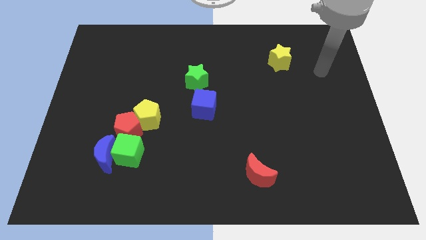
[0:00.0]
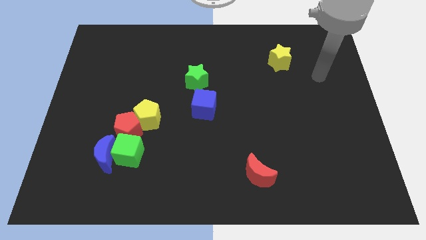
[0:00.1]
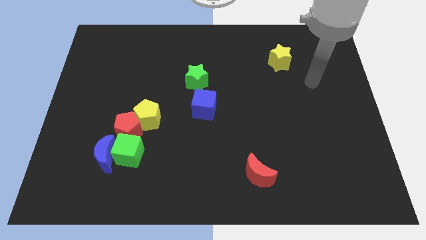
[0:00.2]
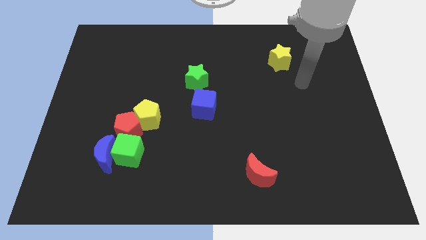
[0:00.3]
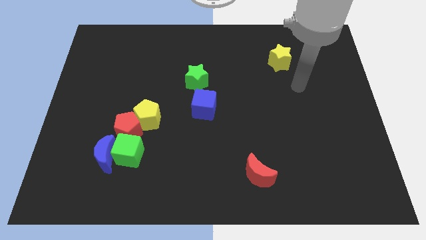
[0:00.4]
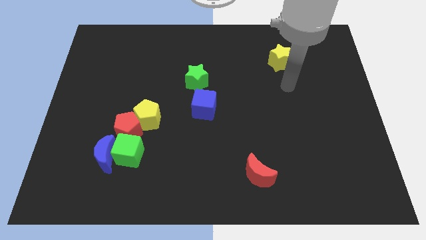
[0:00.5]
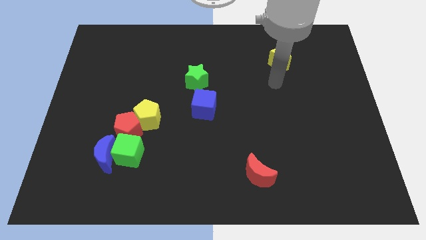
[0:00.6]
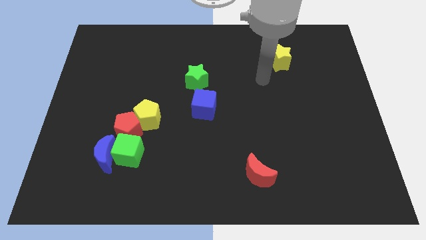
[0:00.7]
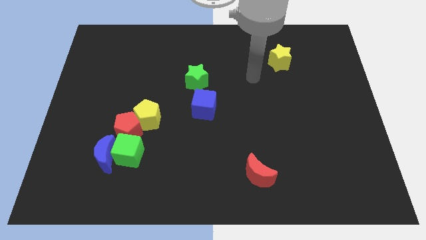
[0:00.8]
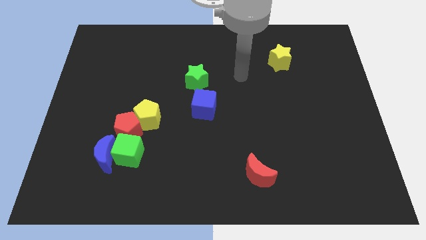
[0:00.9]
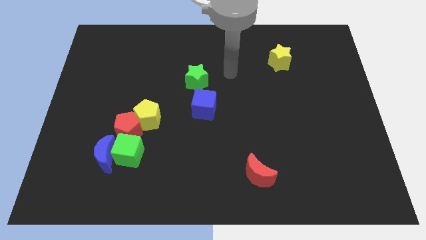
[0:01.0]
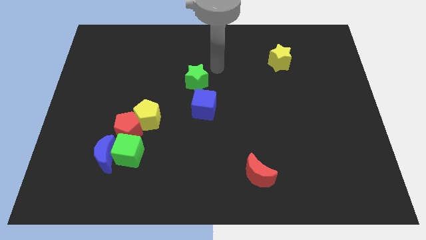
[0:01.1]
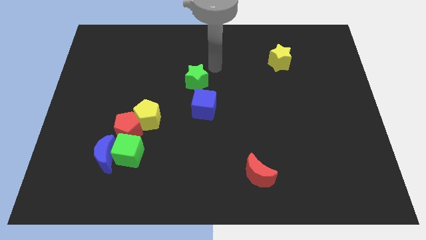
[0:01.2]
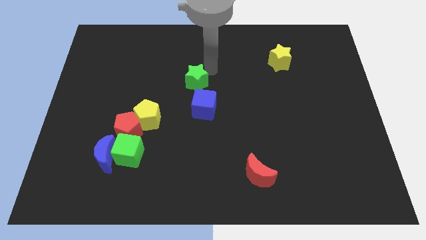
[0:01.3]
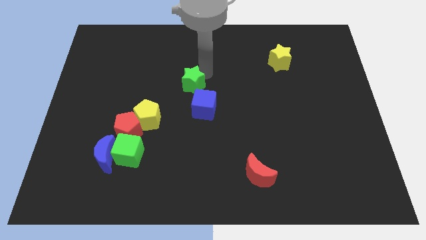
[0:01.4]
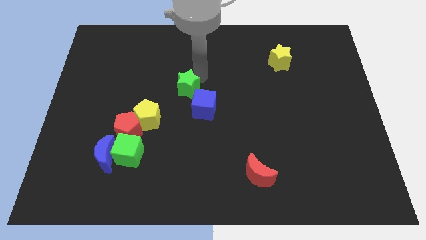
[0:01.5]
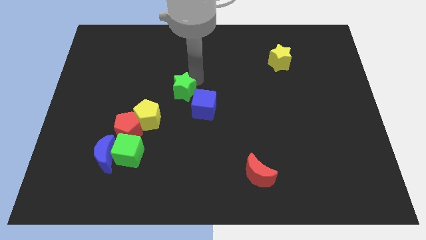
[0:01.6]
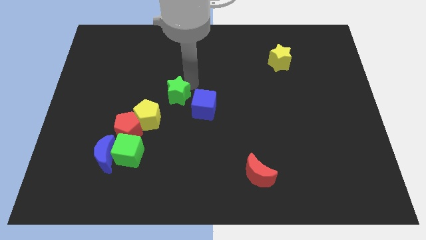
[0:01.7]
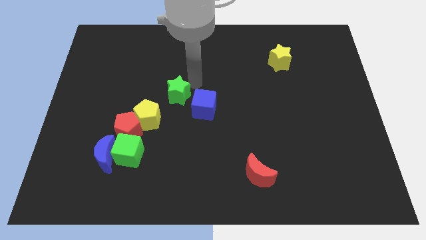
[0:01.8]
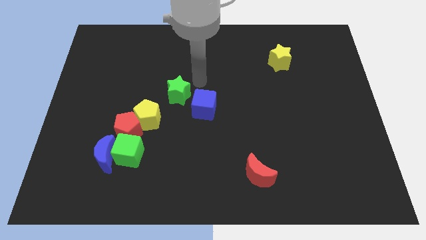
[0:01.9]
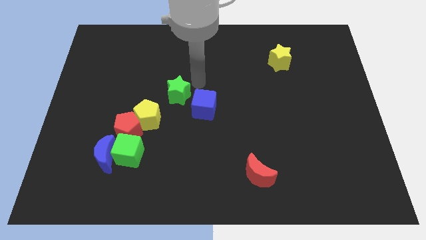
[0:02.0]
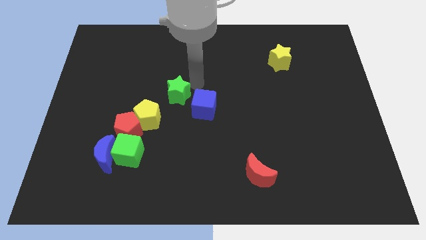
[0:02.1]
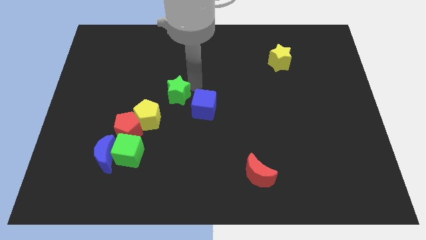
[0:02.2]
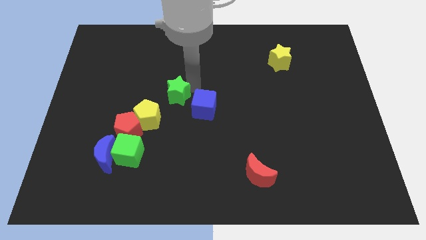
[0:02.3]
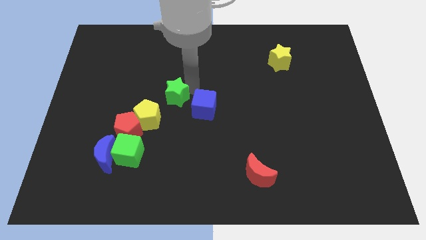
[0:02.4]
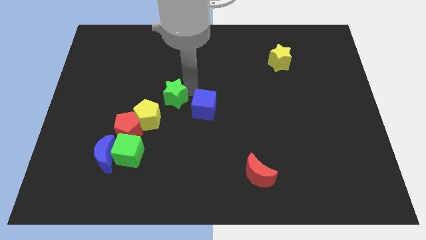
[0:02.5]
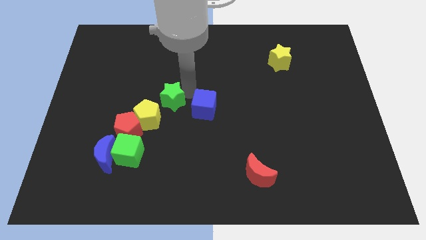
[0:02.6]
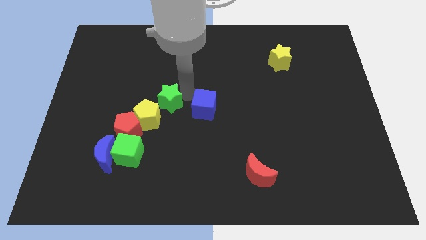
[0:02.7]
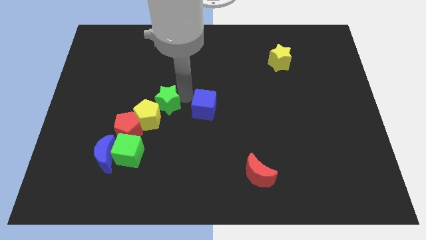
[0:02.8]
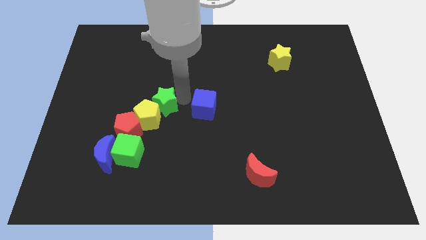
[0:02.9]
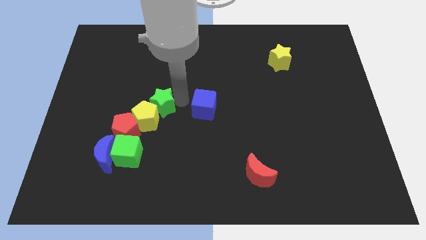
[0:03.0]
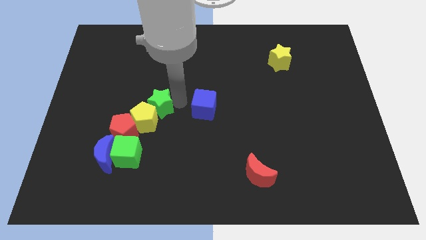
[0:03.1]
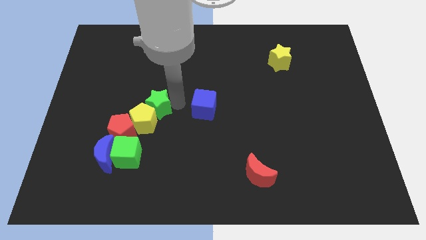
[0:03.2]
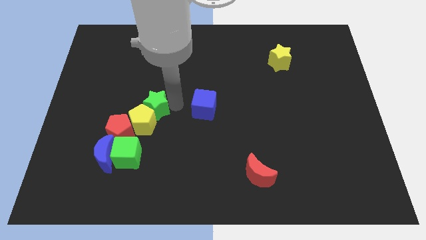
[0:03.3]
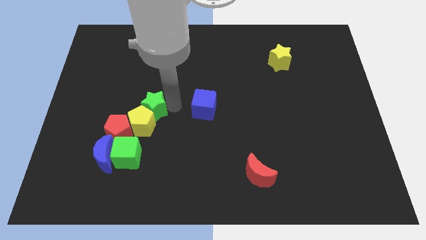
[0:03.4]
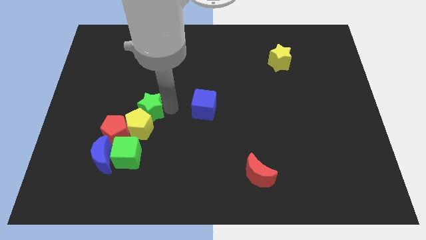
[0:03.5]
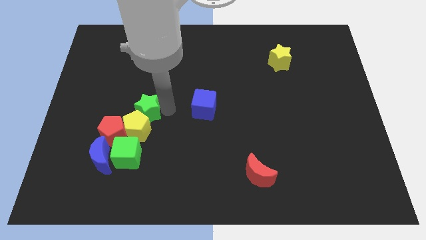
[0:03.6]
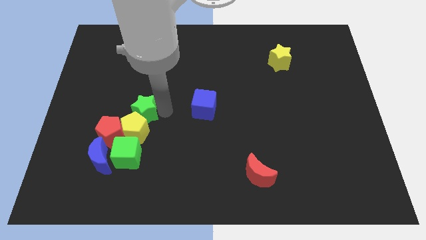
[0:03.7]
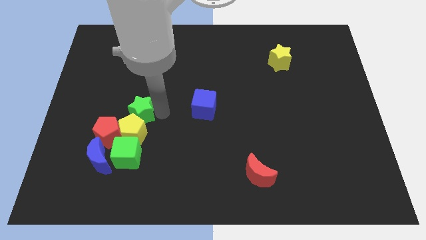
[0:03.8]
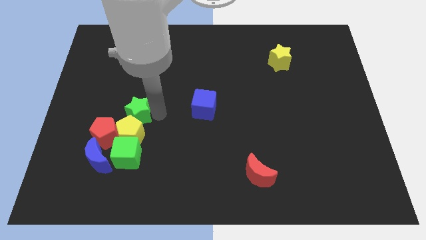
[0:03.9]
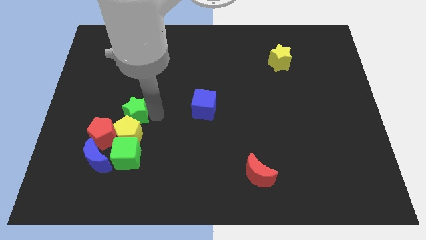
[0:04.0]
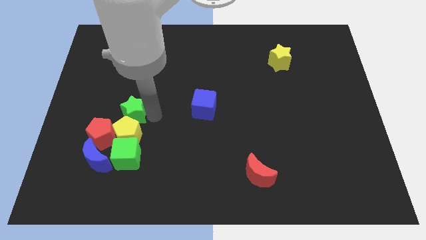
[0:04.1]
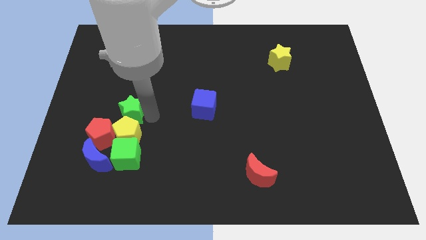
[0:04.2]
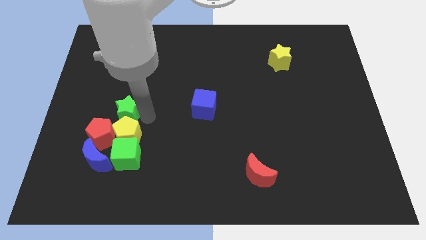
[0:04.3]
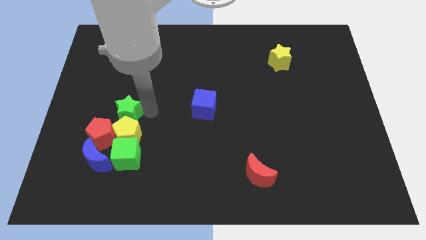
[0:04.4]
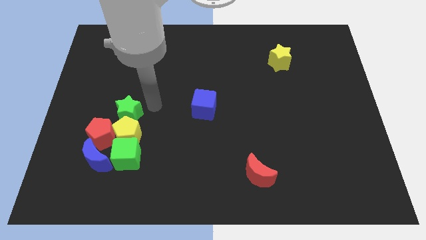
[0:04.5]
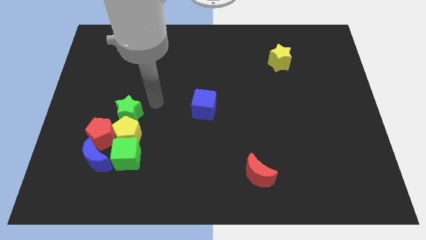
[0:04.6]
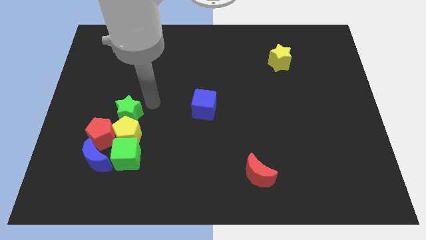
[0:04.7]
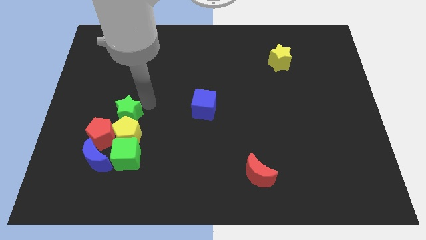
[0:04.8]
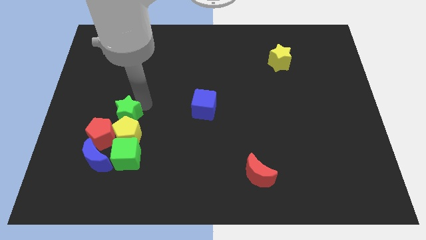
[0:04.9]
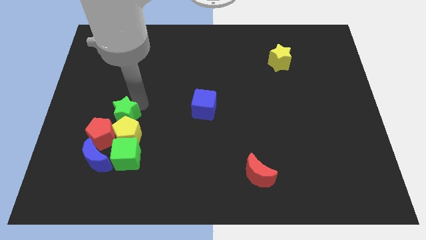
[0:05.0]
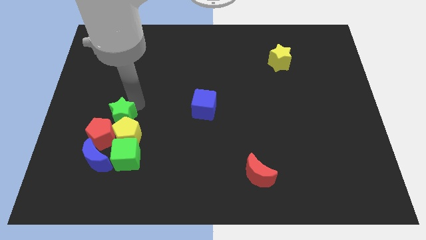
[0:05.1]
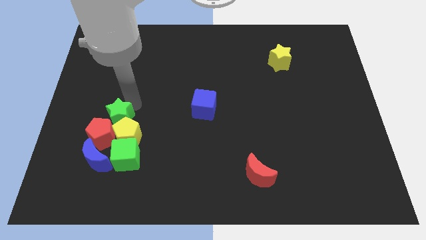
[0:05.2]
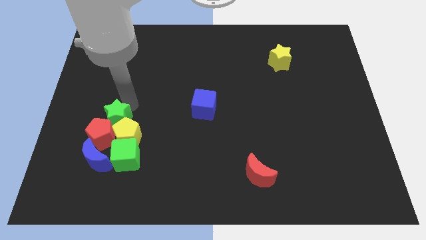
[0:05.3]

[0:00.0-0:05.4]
push the green star diagonally downwards and left

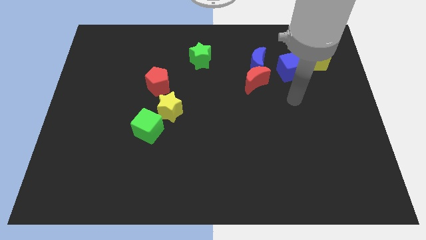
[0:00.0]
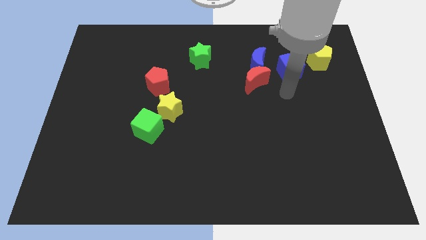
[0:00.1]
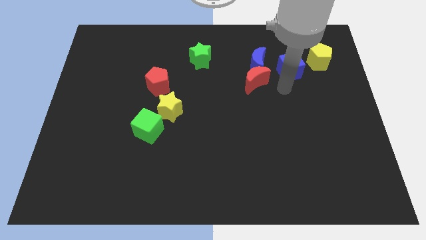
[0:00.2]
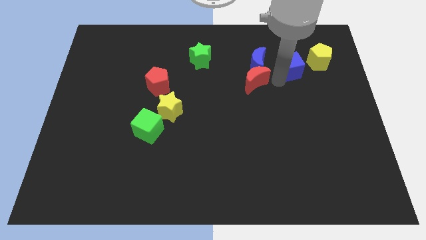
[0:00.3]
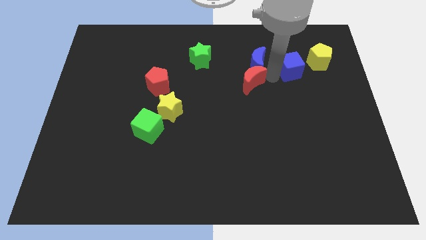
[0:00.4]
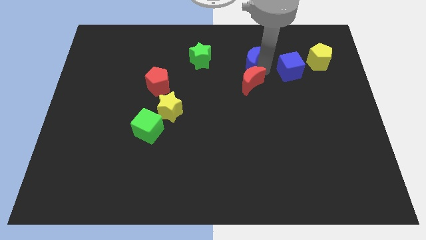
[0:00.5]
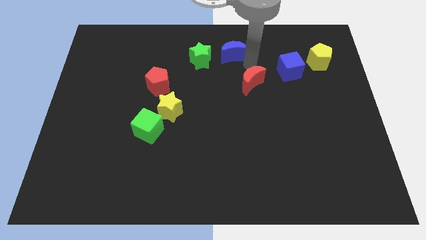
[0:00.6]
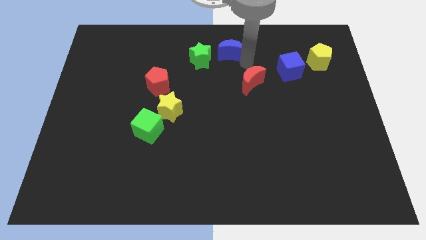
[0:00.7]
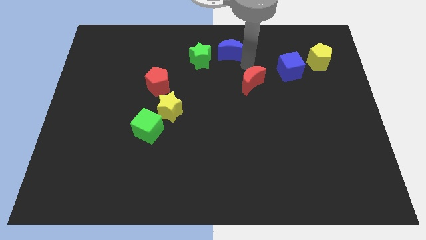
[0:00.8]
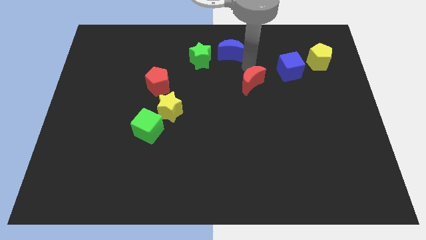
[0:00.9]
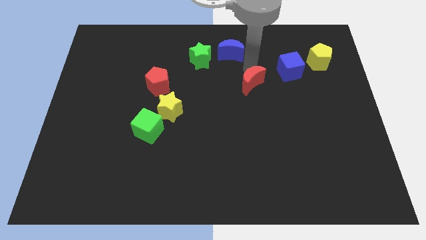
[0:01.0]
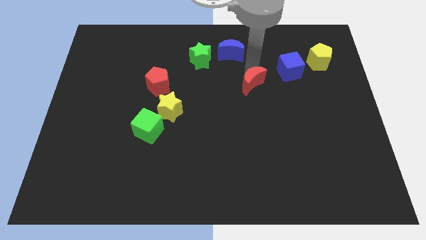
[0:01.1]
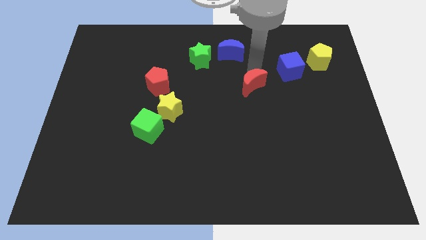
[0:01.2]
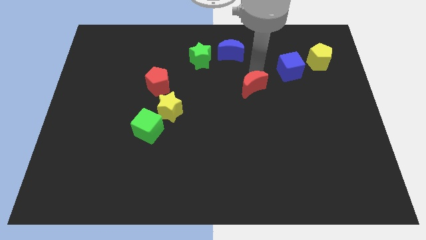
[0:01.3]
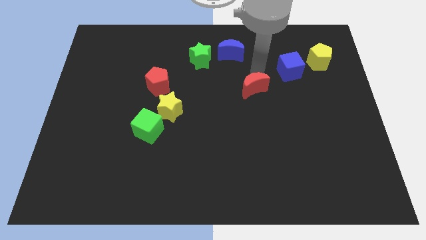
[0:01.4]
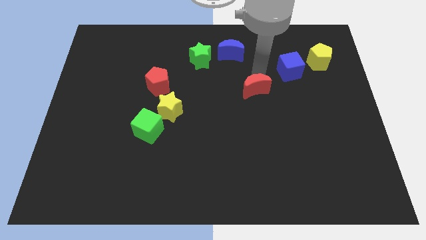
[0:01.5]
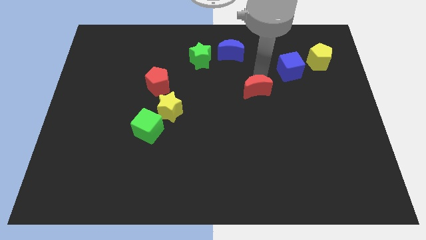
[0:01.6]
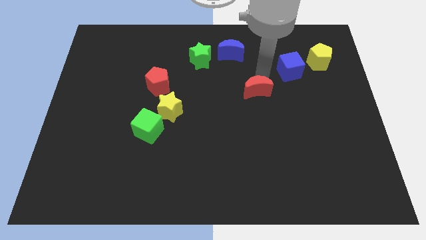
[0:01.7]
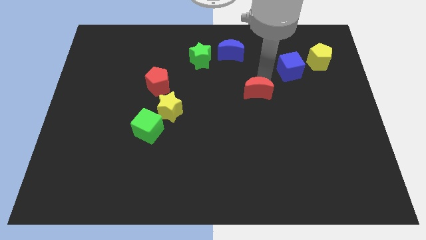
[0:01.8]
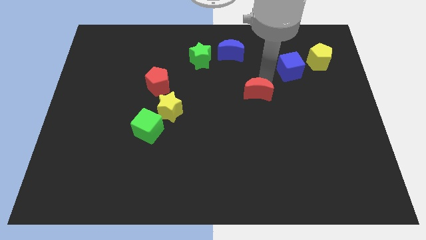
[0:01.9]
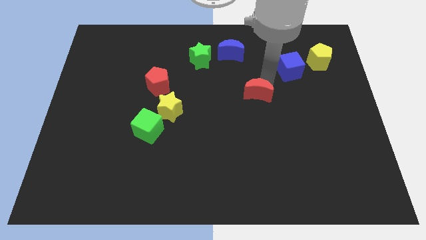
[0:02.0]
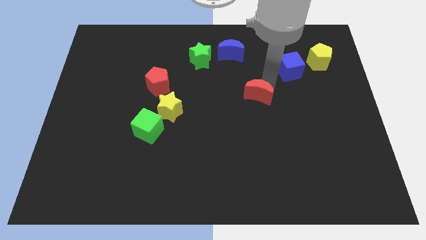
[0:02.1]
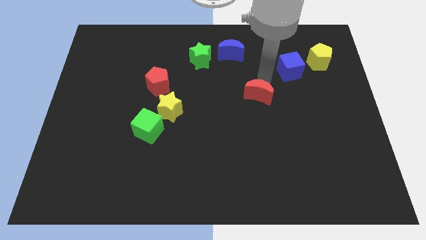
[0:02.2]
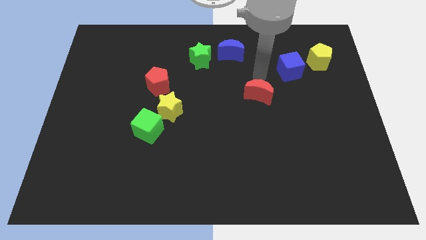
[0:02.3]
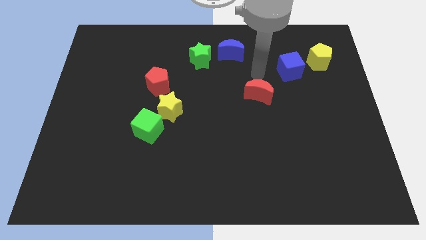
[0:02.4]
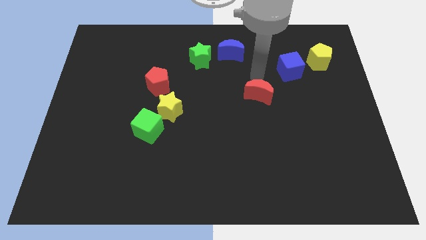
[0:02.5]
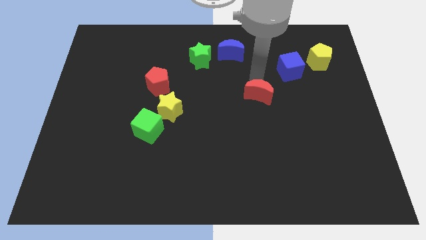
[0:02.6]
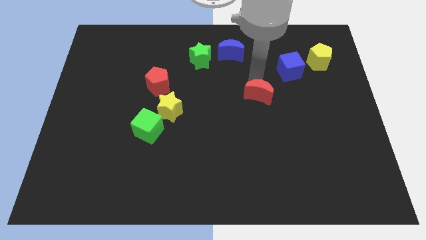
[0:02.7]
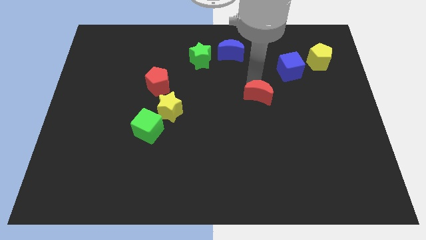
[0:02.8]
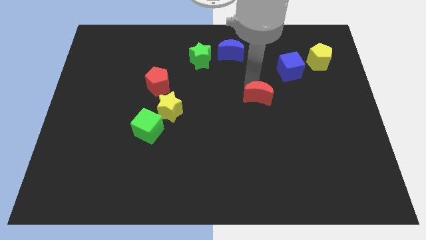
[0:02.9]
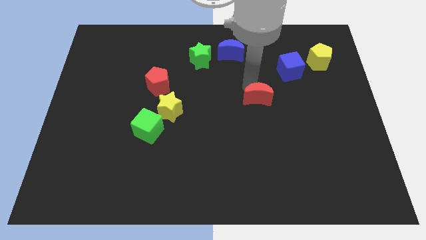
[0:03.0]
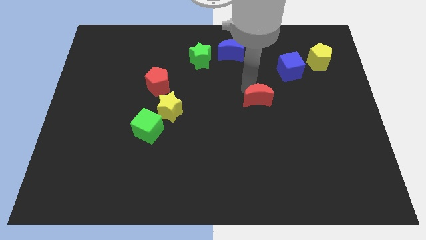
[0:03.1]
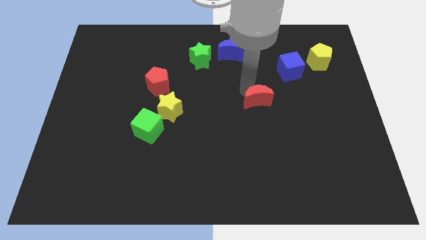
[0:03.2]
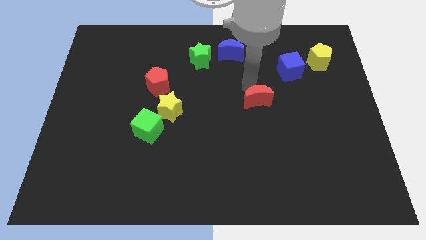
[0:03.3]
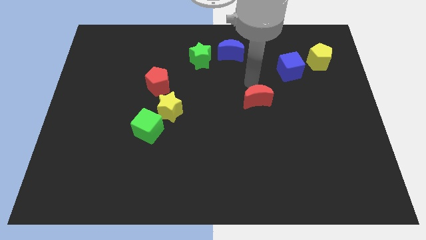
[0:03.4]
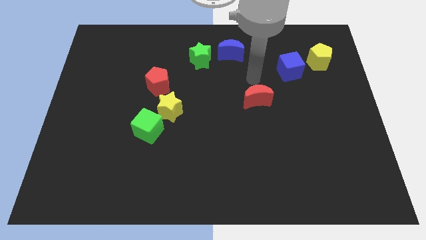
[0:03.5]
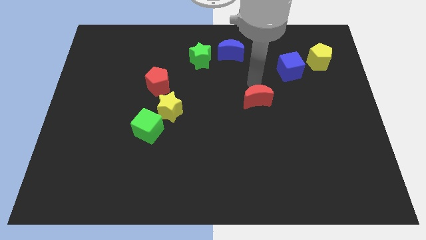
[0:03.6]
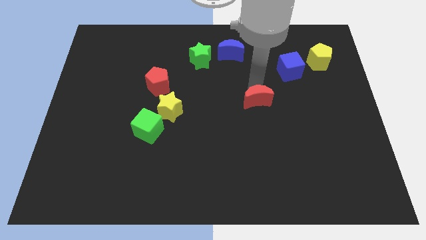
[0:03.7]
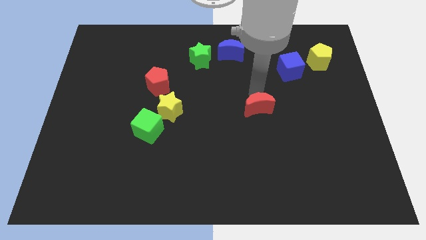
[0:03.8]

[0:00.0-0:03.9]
slightly push the red moon down
